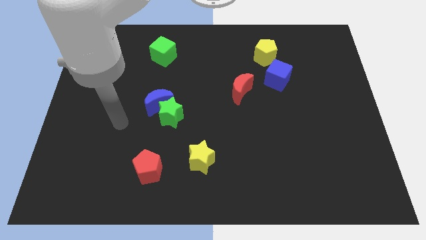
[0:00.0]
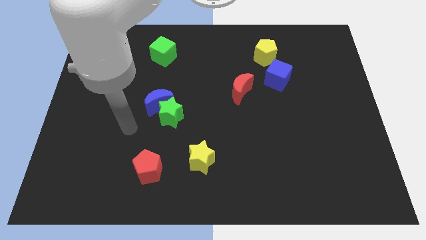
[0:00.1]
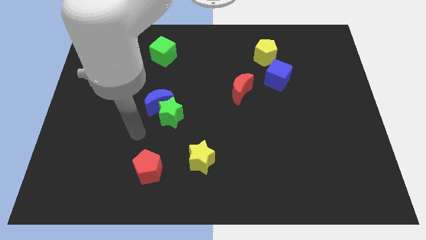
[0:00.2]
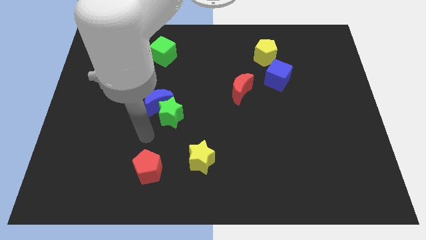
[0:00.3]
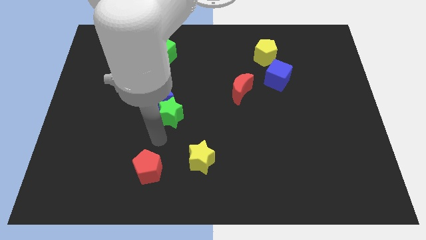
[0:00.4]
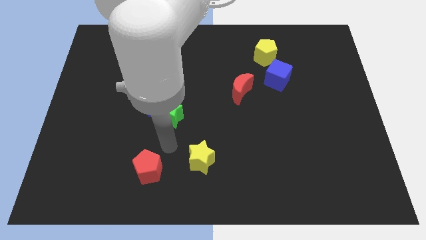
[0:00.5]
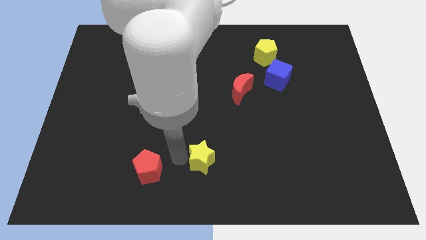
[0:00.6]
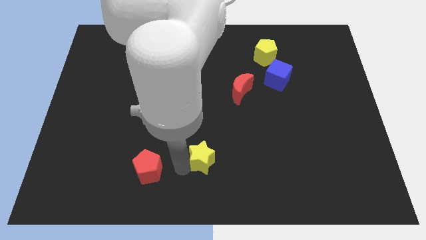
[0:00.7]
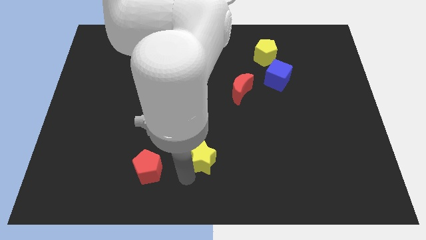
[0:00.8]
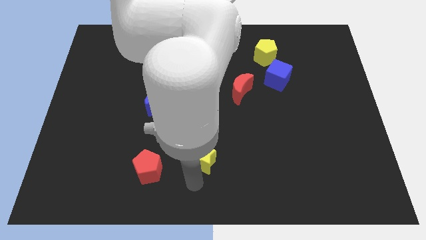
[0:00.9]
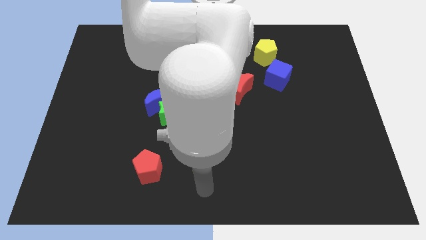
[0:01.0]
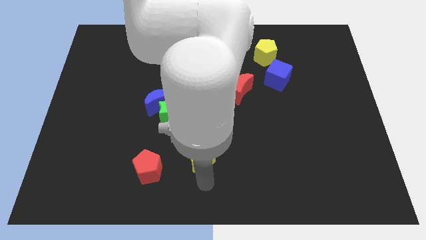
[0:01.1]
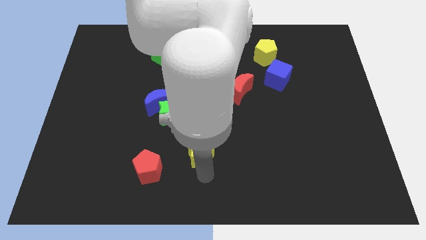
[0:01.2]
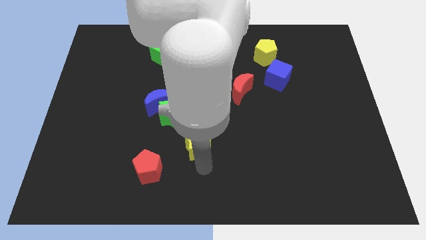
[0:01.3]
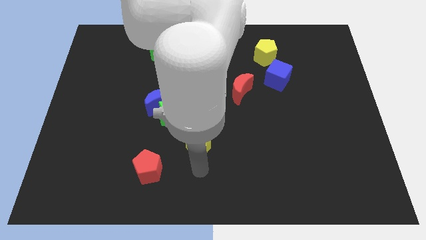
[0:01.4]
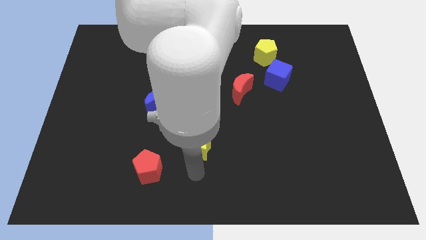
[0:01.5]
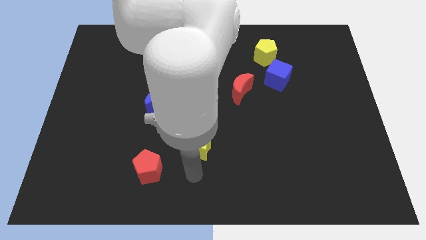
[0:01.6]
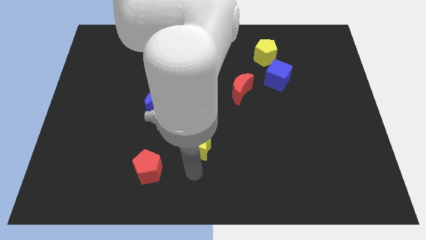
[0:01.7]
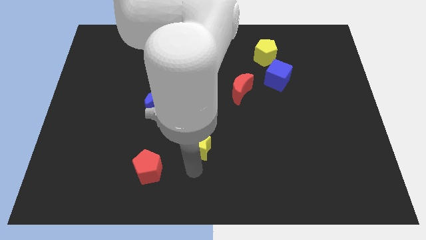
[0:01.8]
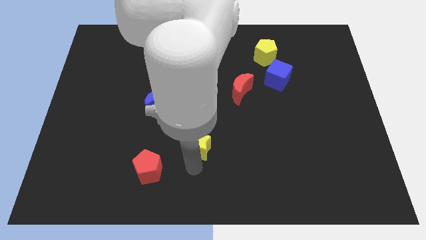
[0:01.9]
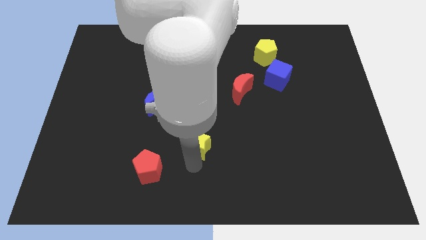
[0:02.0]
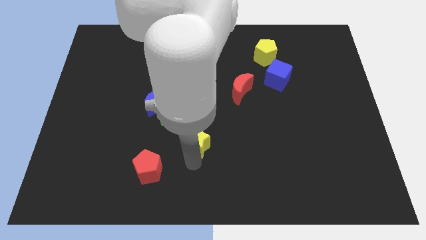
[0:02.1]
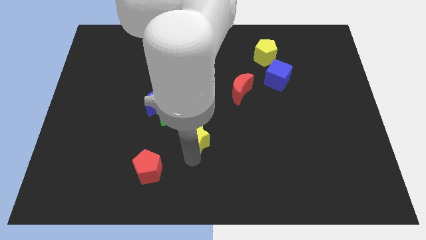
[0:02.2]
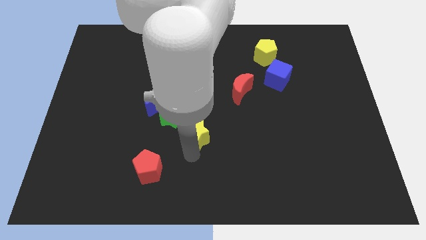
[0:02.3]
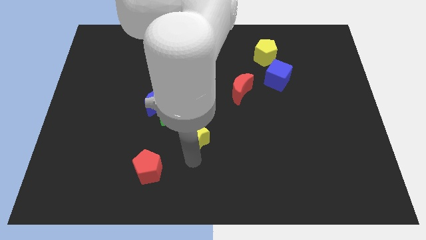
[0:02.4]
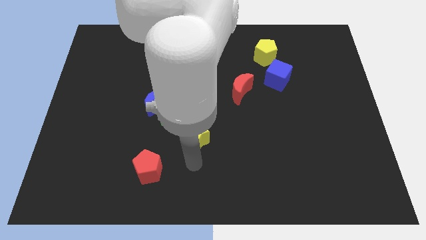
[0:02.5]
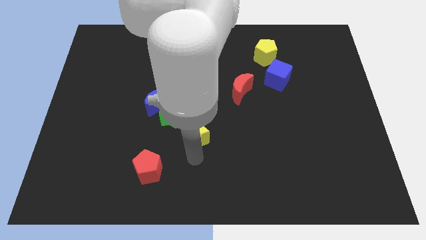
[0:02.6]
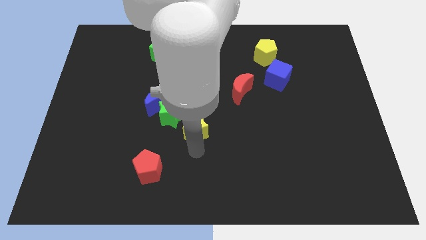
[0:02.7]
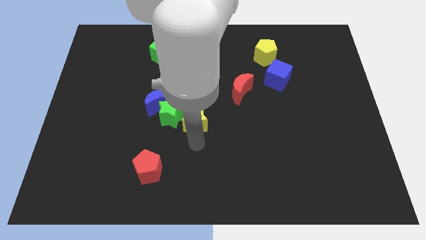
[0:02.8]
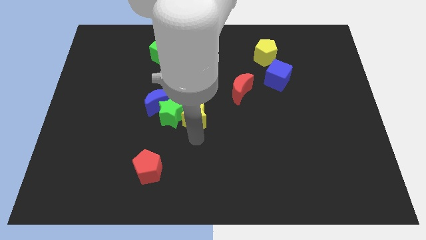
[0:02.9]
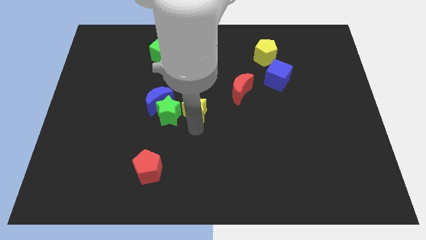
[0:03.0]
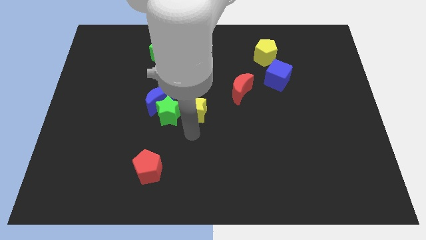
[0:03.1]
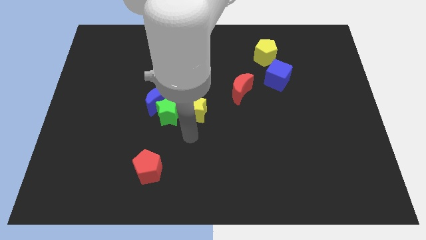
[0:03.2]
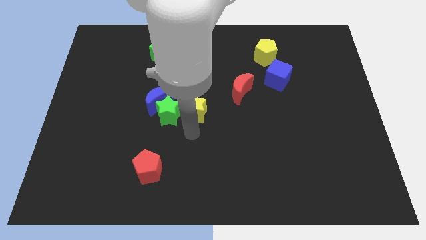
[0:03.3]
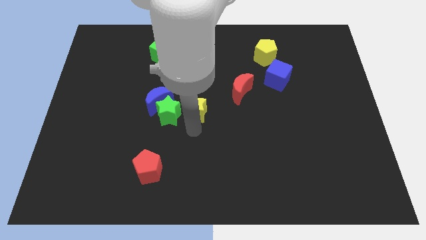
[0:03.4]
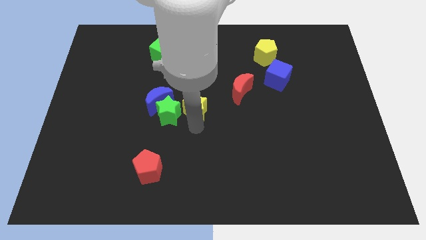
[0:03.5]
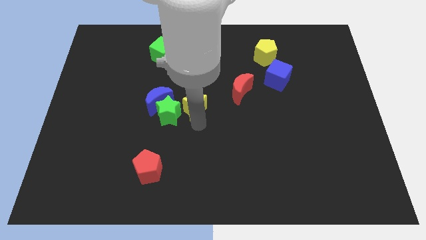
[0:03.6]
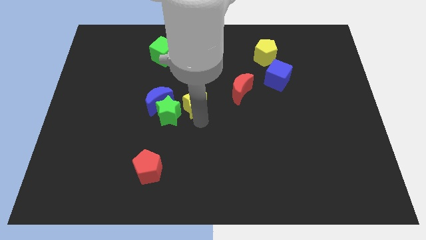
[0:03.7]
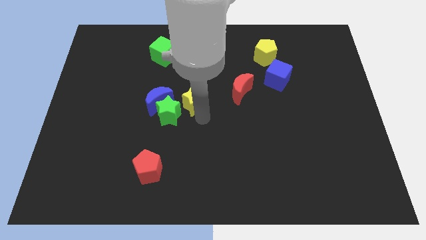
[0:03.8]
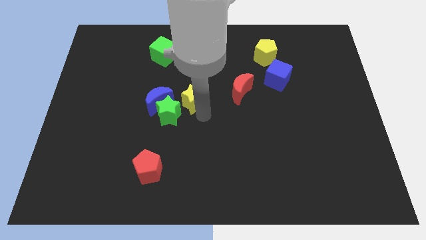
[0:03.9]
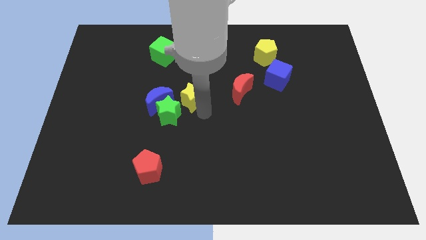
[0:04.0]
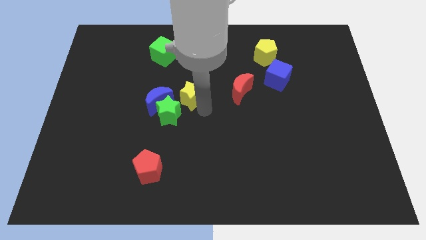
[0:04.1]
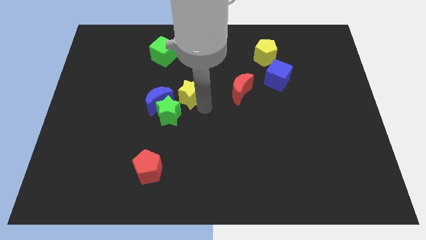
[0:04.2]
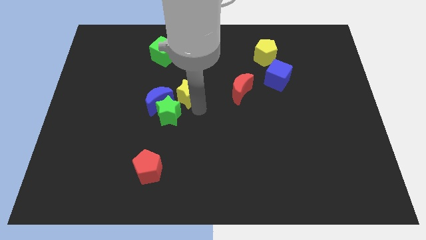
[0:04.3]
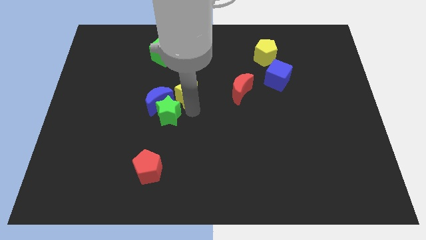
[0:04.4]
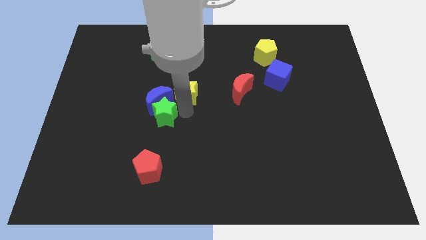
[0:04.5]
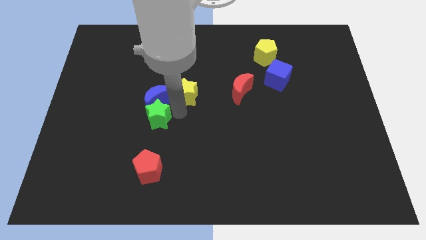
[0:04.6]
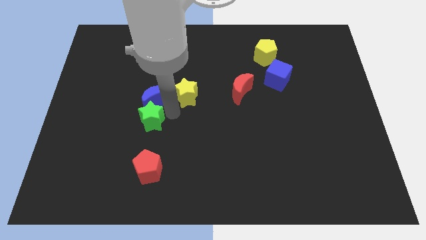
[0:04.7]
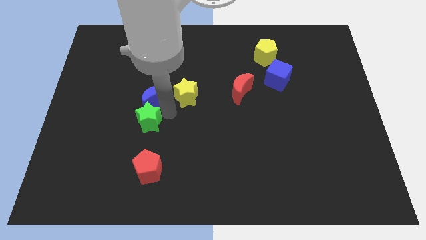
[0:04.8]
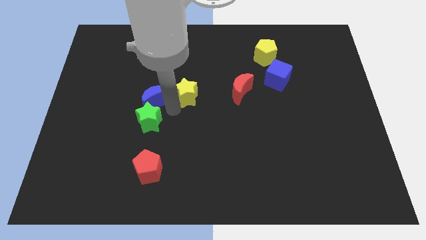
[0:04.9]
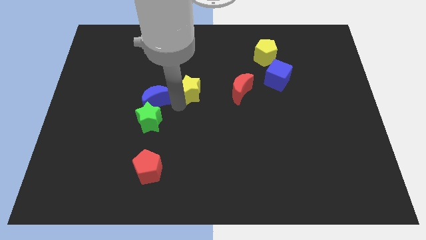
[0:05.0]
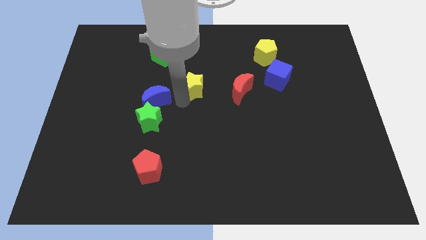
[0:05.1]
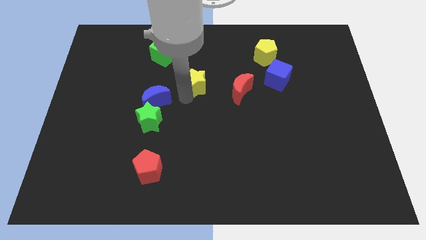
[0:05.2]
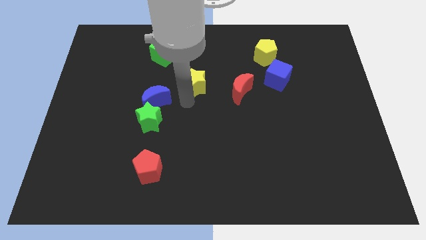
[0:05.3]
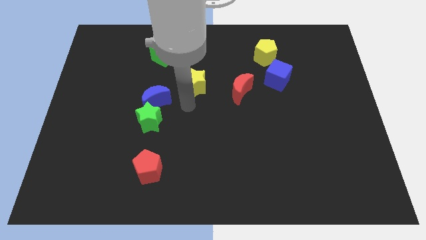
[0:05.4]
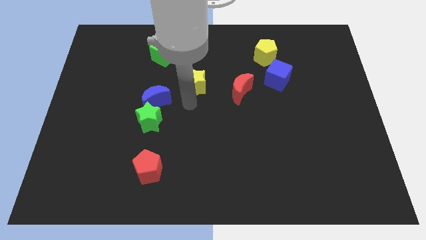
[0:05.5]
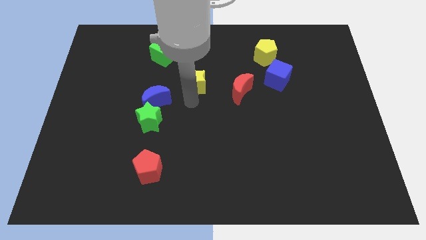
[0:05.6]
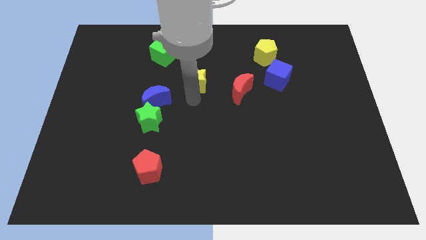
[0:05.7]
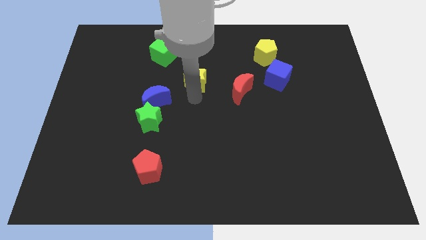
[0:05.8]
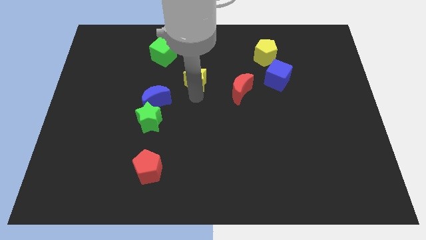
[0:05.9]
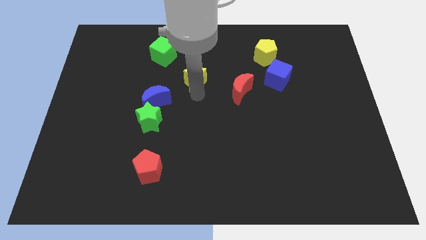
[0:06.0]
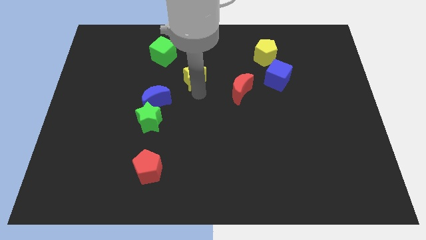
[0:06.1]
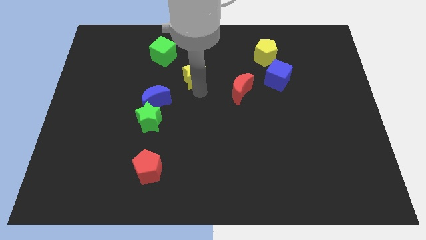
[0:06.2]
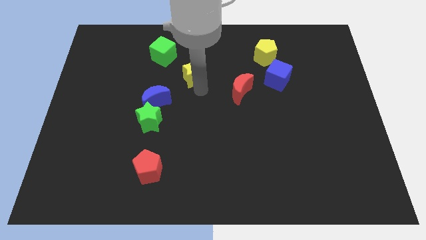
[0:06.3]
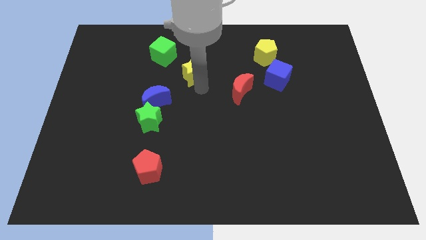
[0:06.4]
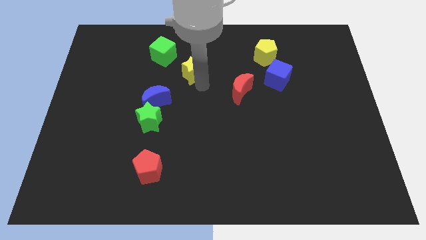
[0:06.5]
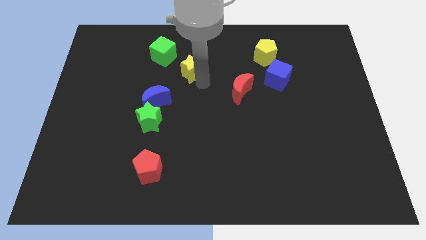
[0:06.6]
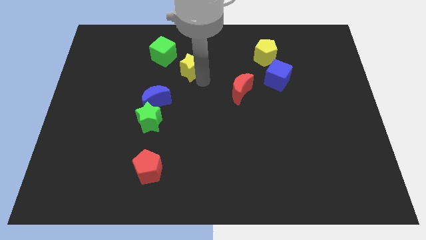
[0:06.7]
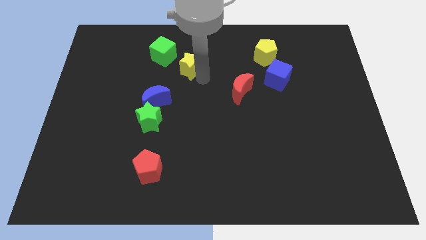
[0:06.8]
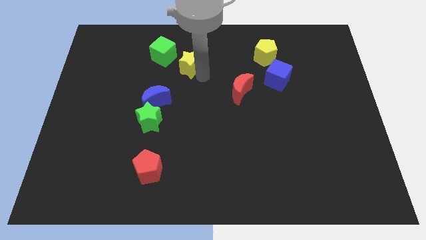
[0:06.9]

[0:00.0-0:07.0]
move the yellow star to the right of the green cube
